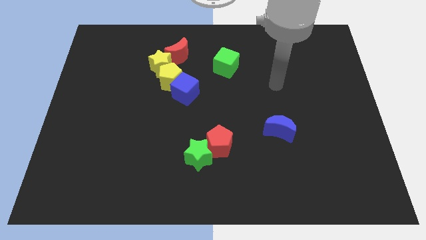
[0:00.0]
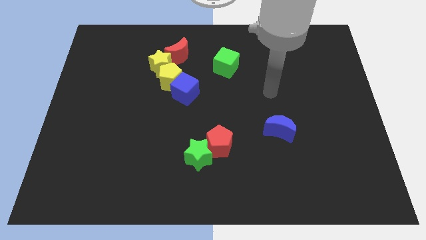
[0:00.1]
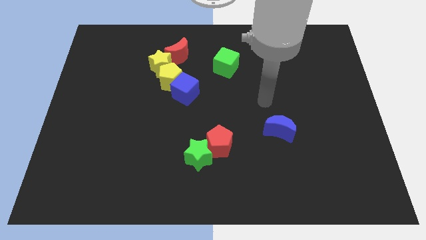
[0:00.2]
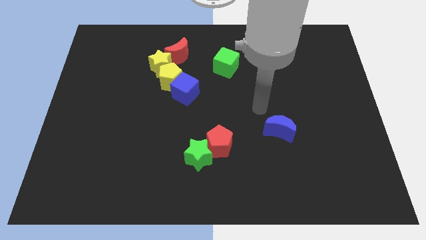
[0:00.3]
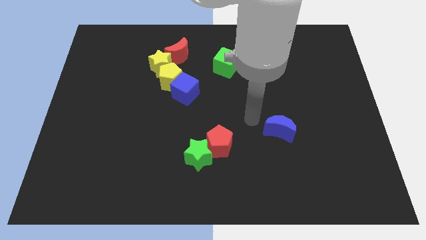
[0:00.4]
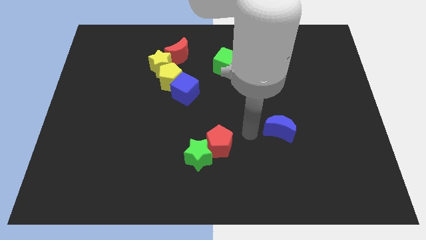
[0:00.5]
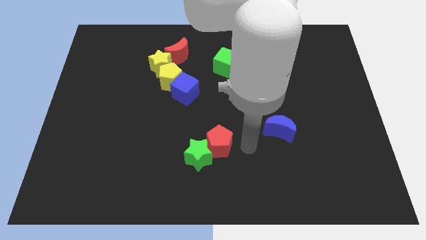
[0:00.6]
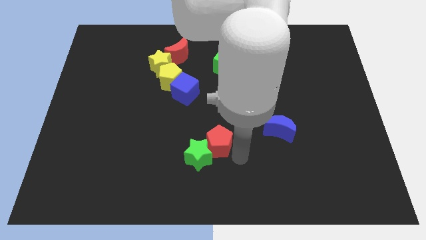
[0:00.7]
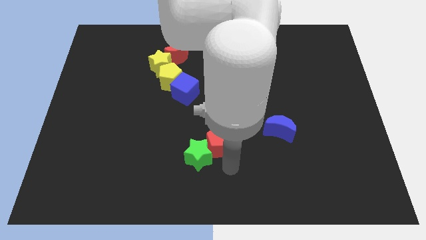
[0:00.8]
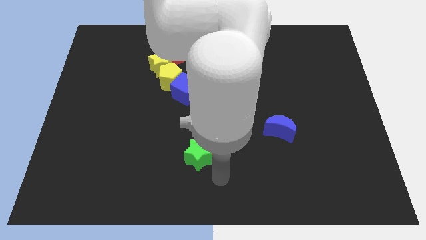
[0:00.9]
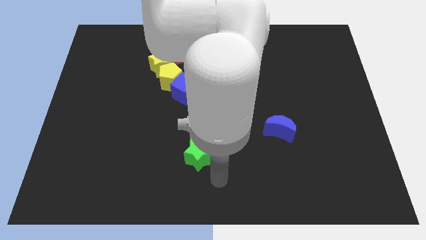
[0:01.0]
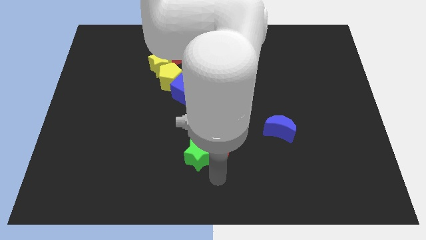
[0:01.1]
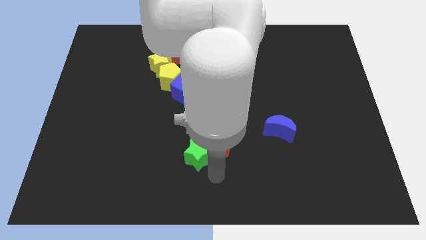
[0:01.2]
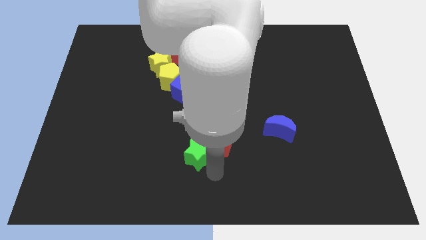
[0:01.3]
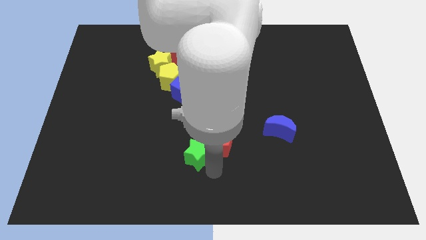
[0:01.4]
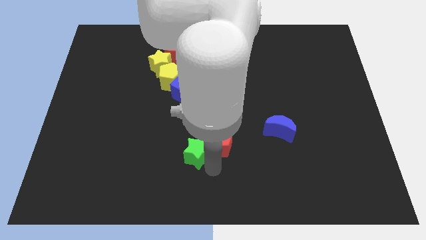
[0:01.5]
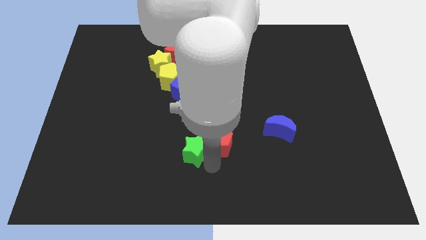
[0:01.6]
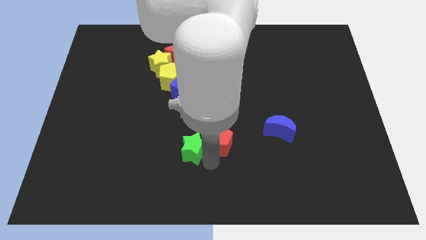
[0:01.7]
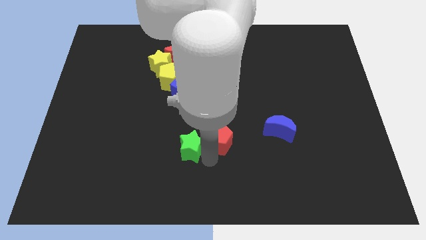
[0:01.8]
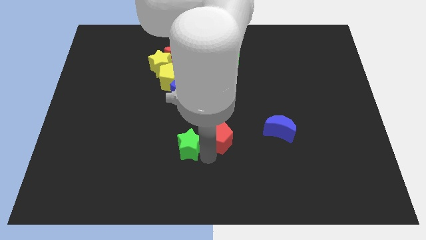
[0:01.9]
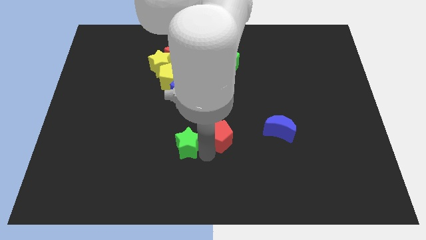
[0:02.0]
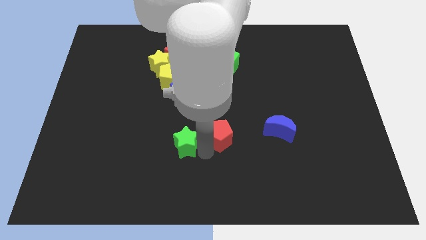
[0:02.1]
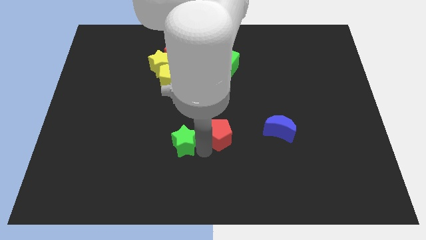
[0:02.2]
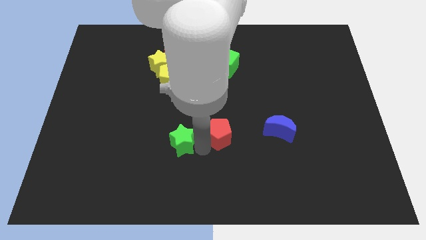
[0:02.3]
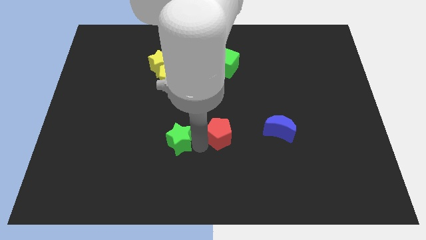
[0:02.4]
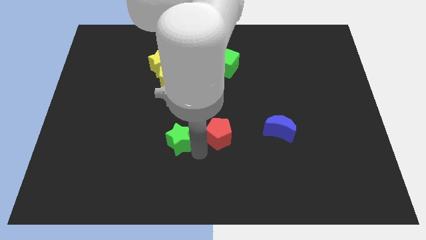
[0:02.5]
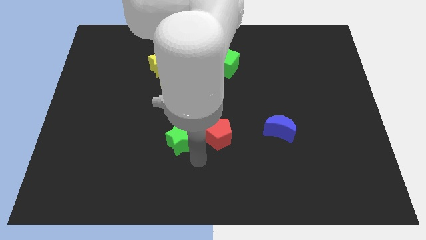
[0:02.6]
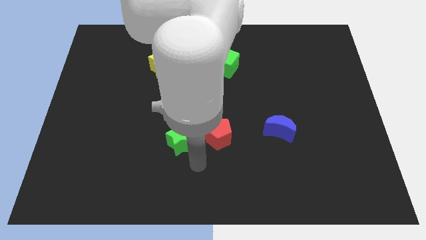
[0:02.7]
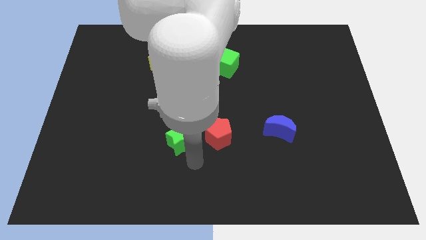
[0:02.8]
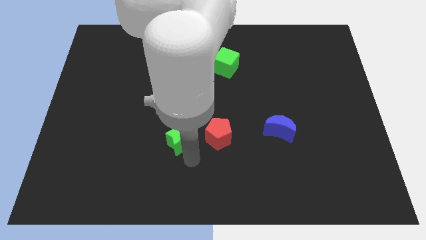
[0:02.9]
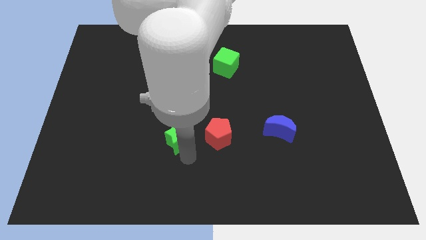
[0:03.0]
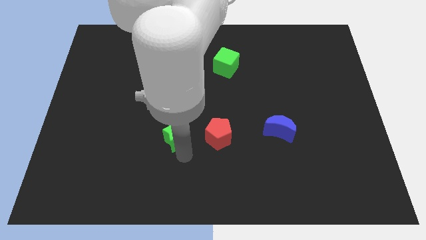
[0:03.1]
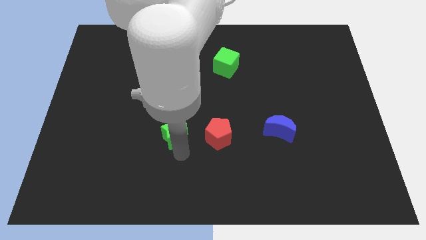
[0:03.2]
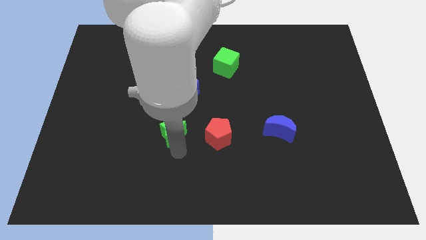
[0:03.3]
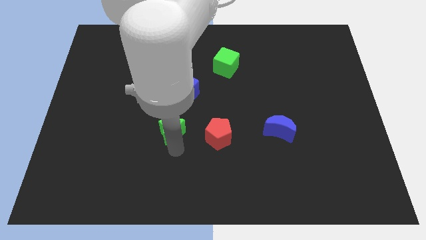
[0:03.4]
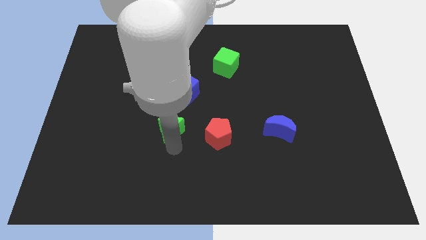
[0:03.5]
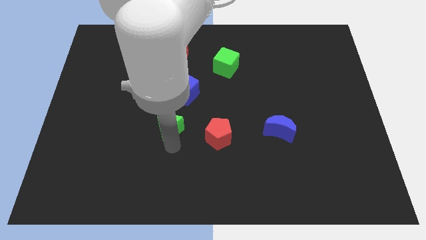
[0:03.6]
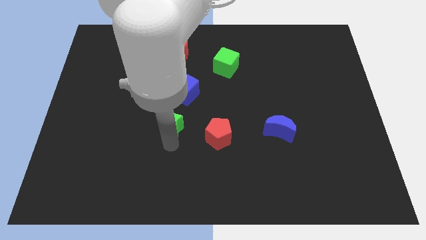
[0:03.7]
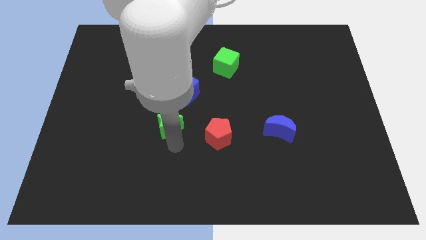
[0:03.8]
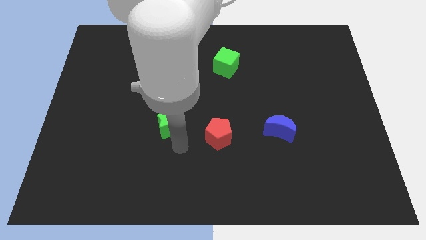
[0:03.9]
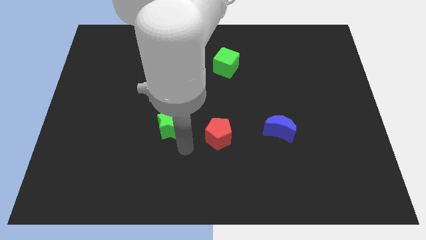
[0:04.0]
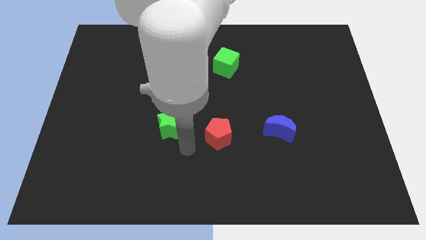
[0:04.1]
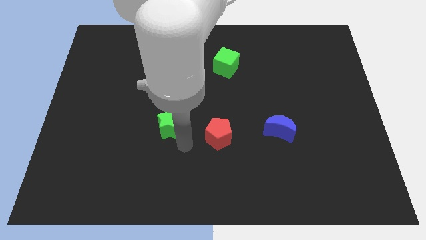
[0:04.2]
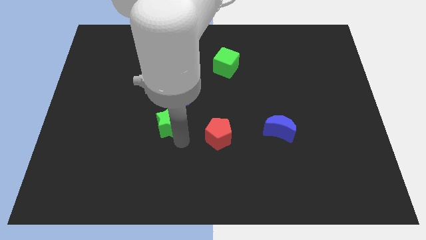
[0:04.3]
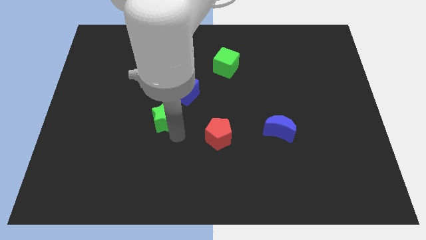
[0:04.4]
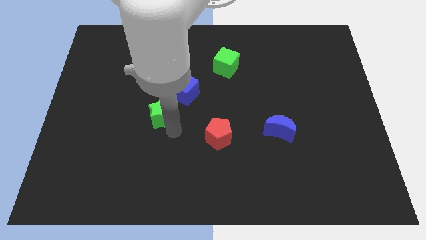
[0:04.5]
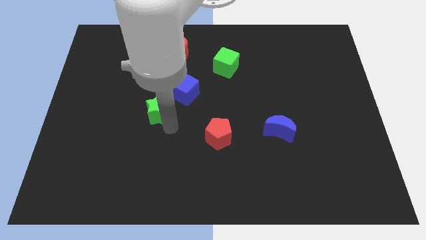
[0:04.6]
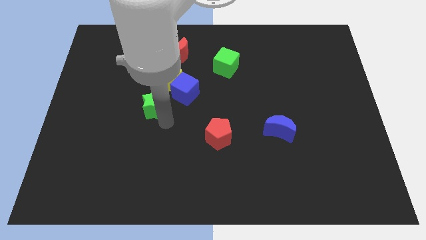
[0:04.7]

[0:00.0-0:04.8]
slide the green star to the bottom left side of the yellow pentagon

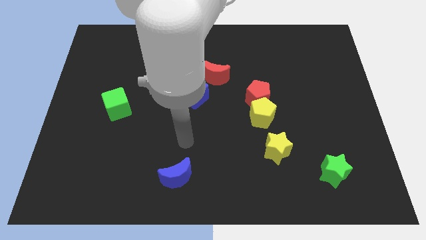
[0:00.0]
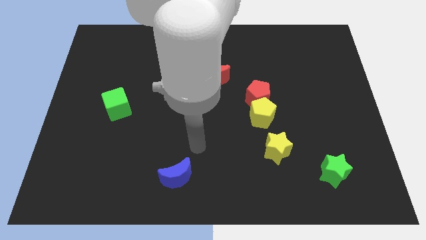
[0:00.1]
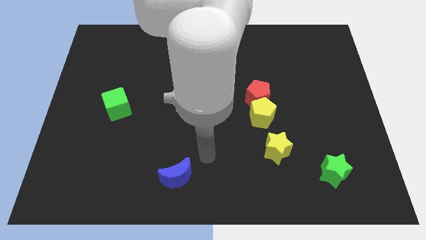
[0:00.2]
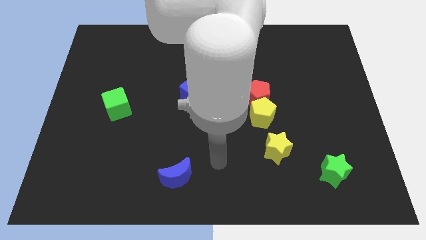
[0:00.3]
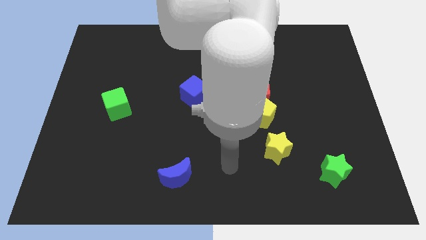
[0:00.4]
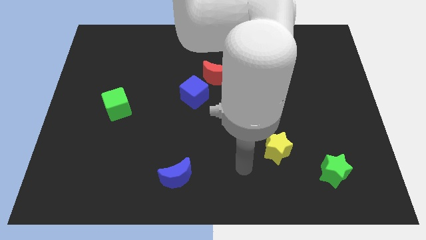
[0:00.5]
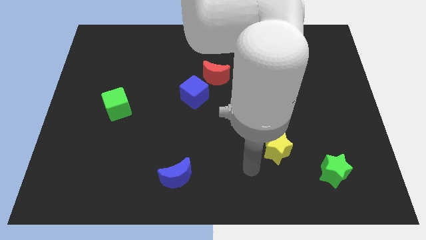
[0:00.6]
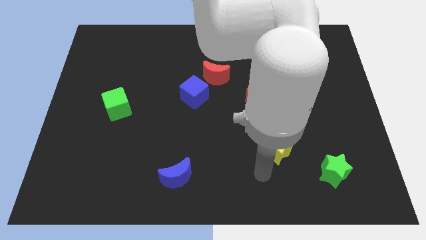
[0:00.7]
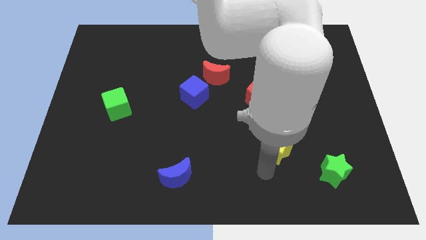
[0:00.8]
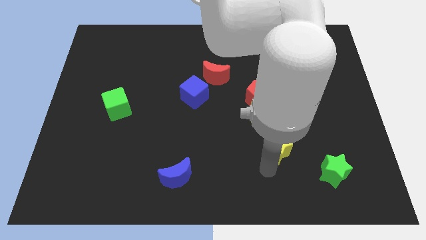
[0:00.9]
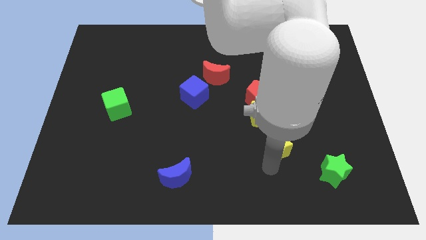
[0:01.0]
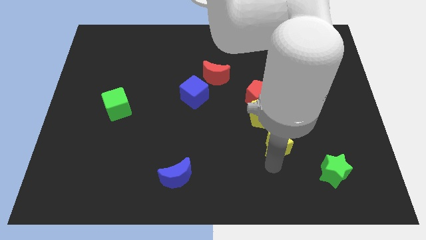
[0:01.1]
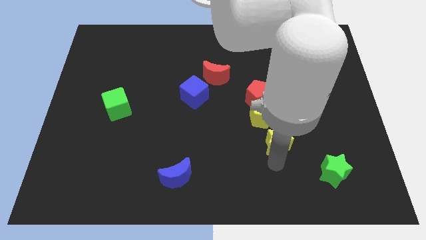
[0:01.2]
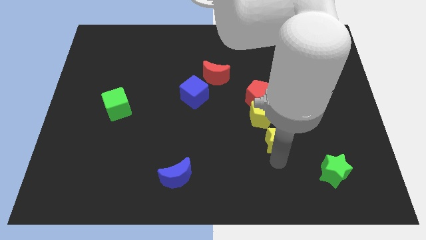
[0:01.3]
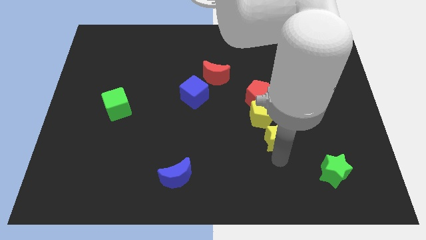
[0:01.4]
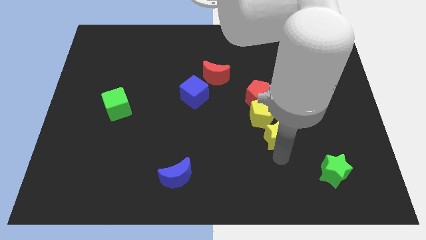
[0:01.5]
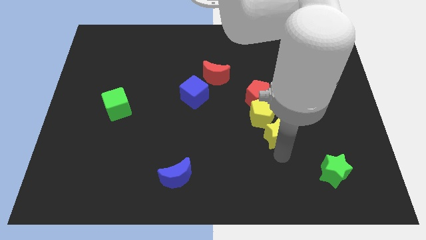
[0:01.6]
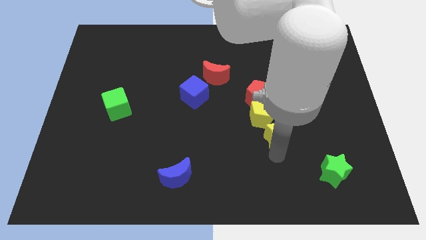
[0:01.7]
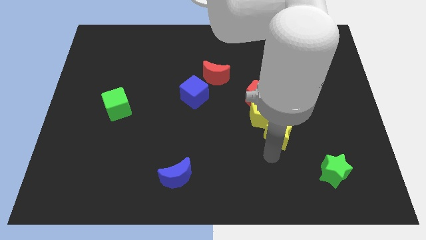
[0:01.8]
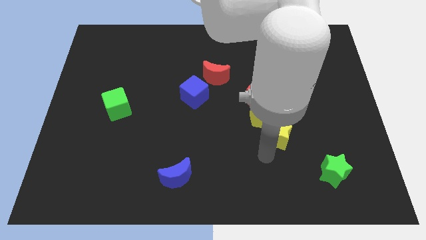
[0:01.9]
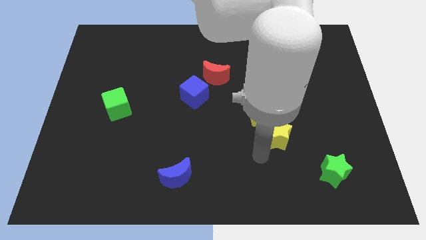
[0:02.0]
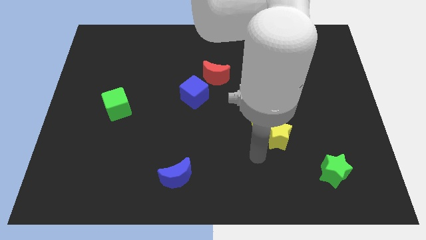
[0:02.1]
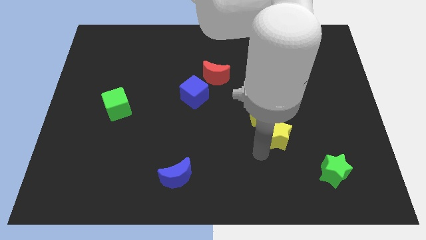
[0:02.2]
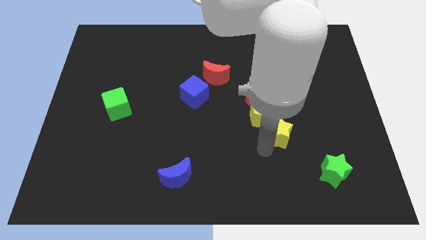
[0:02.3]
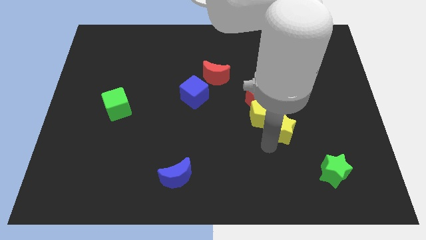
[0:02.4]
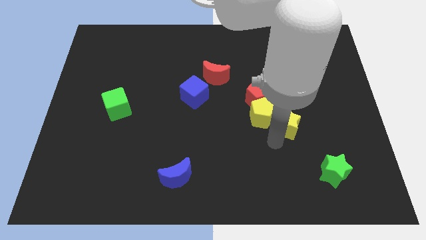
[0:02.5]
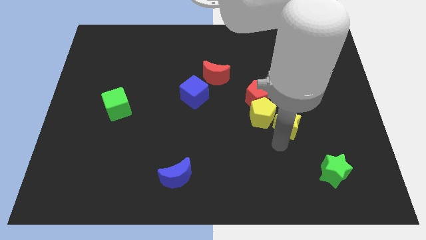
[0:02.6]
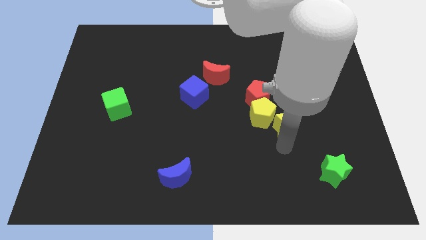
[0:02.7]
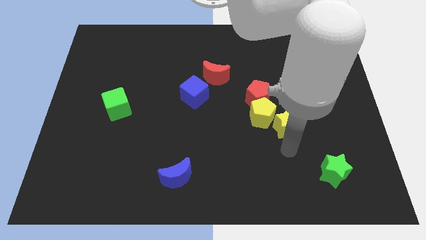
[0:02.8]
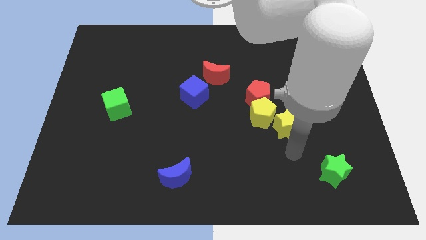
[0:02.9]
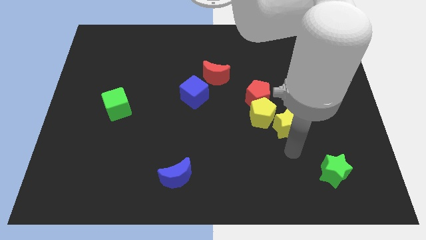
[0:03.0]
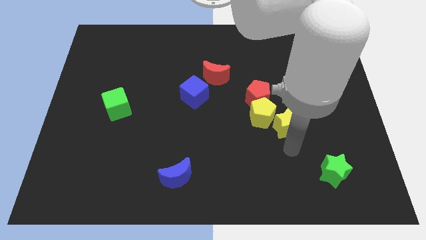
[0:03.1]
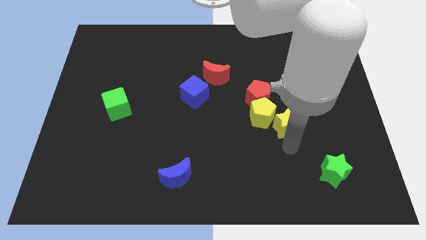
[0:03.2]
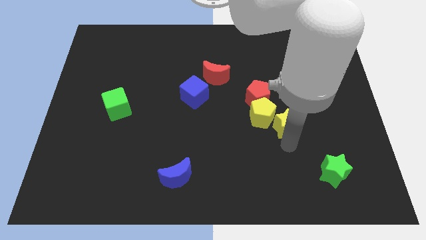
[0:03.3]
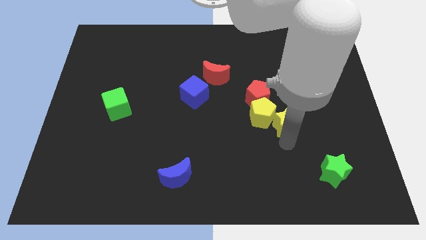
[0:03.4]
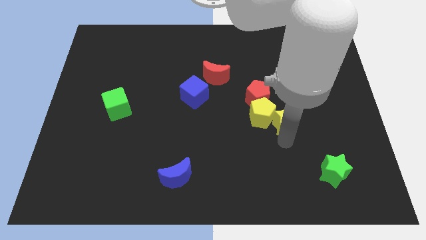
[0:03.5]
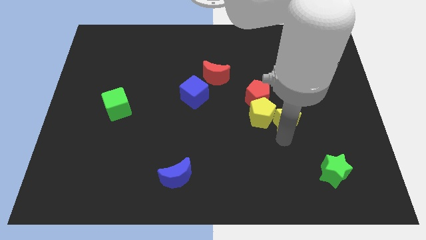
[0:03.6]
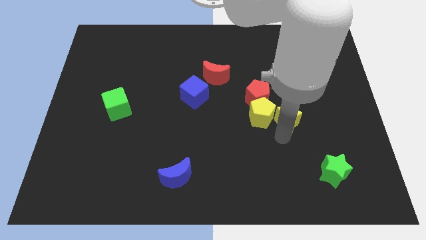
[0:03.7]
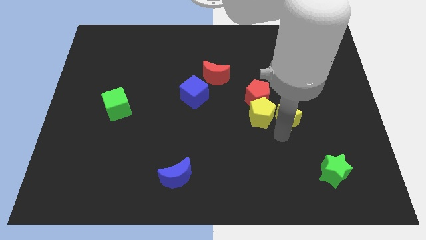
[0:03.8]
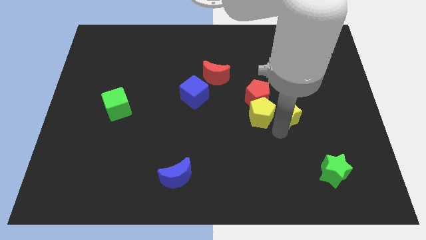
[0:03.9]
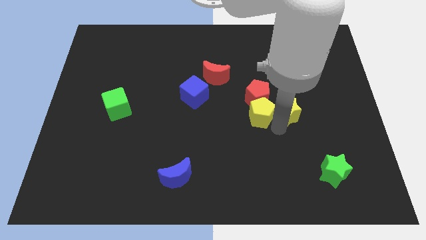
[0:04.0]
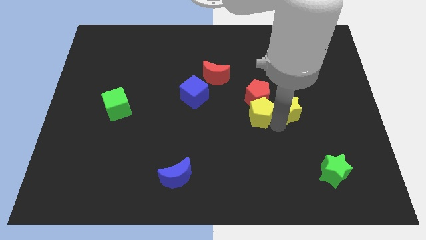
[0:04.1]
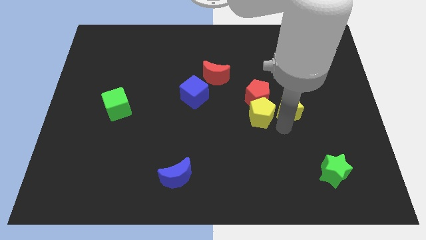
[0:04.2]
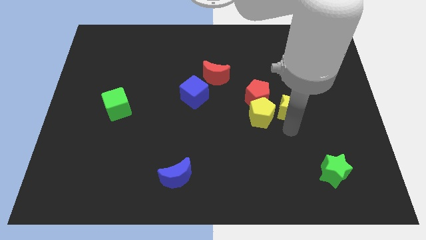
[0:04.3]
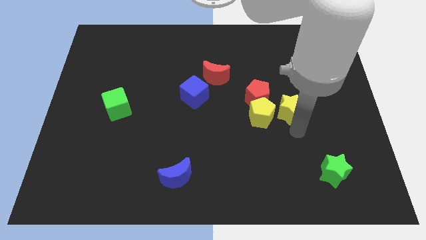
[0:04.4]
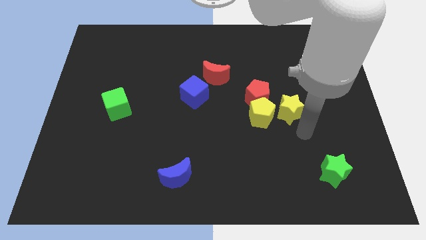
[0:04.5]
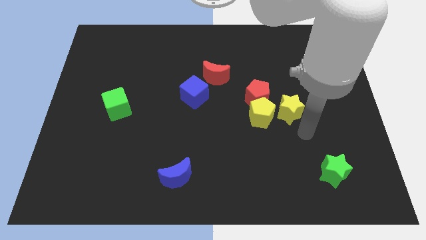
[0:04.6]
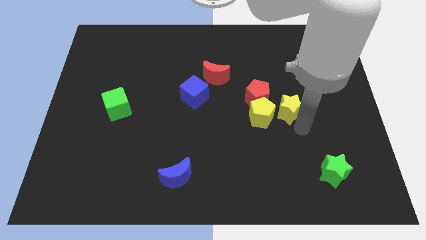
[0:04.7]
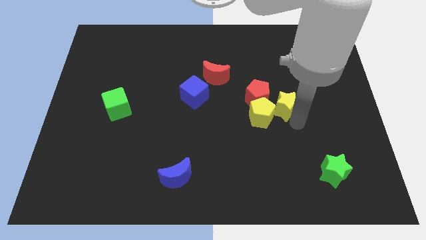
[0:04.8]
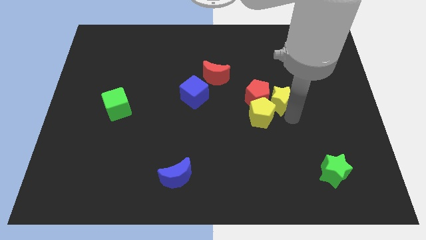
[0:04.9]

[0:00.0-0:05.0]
push the yellow star to the top side of the yellow pentagon
